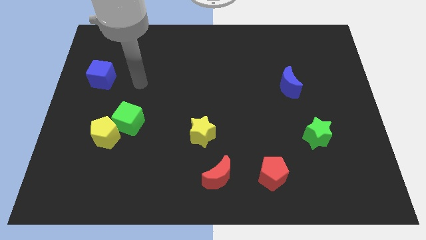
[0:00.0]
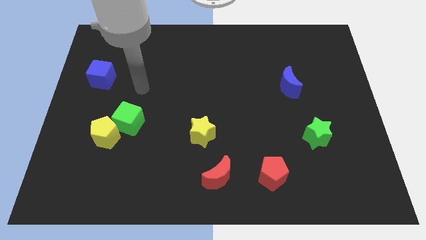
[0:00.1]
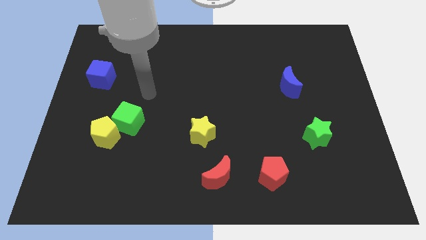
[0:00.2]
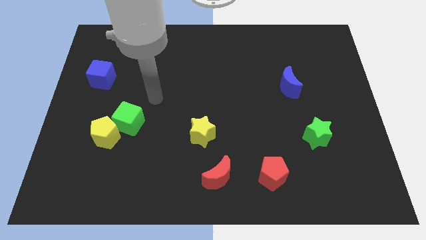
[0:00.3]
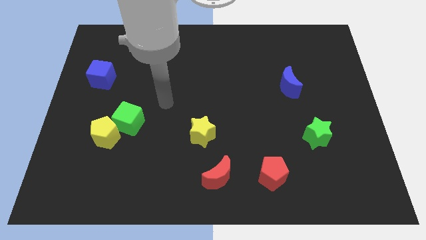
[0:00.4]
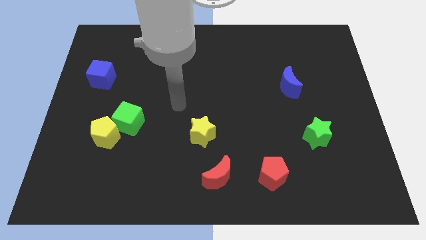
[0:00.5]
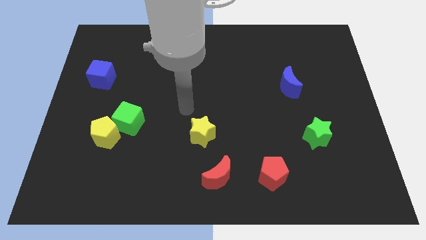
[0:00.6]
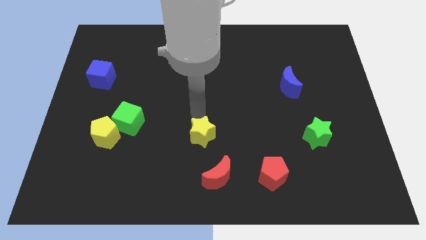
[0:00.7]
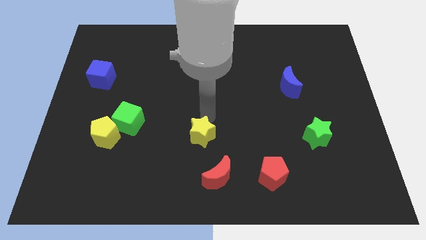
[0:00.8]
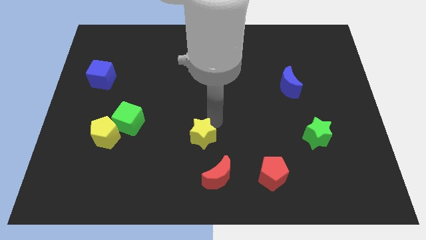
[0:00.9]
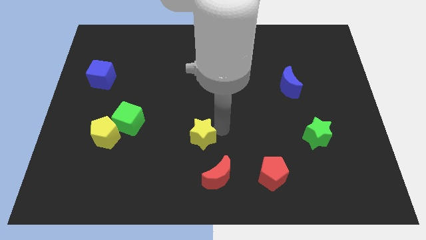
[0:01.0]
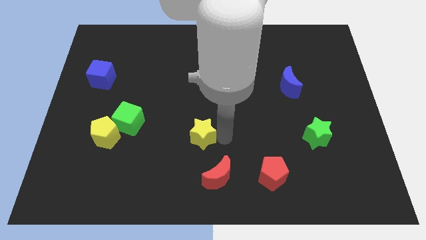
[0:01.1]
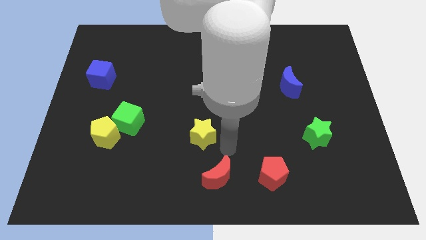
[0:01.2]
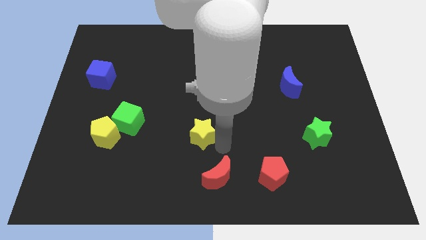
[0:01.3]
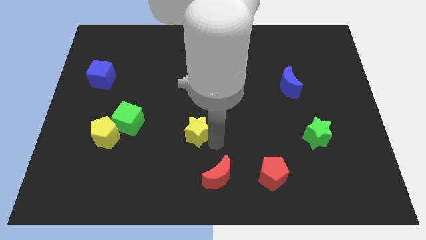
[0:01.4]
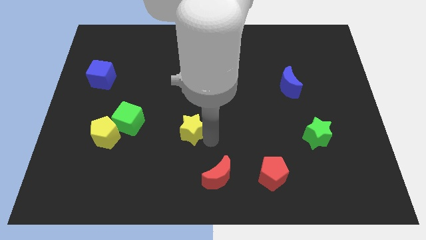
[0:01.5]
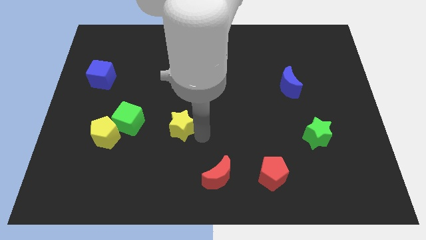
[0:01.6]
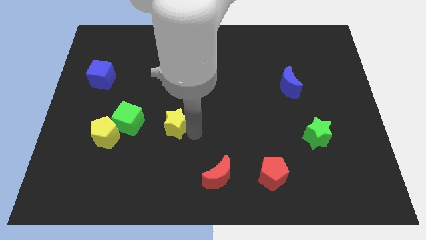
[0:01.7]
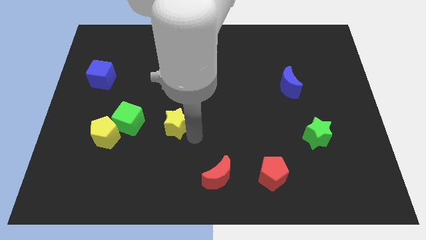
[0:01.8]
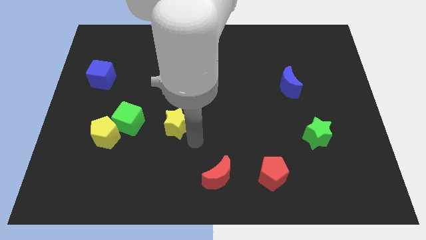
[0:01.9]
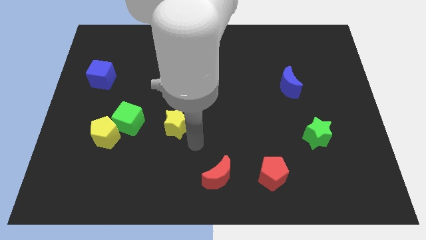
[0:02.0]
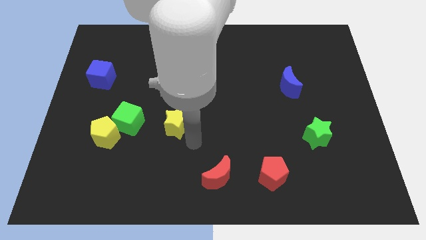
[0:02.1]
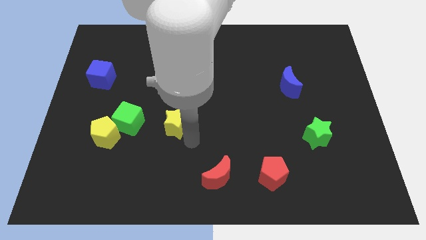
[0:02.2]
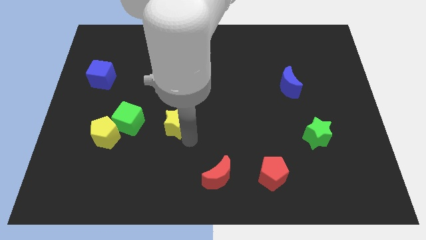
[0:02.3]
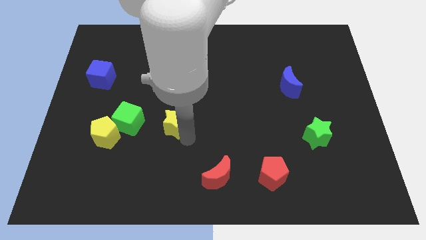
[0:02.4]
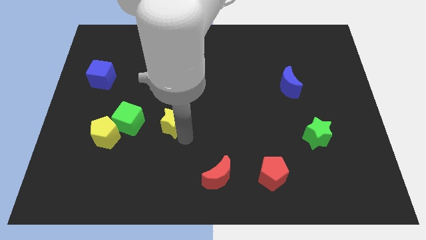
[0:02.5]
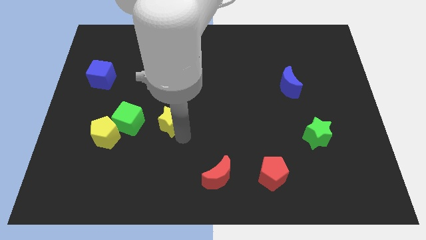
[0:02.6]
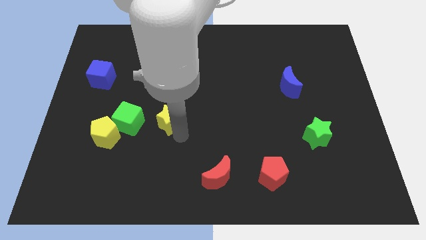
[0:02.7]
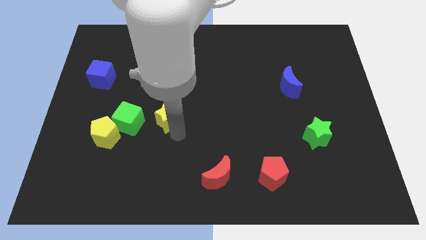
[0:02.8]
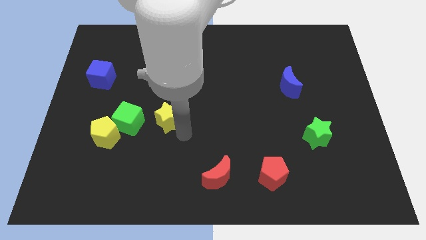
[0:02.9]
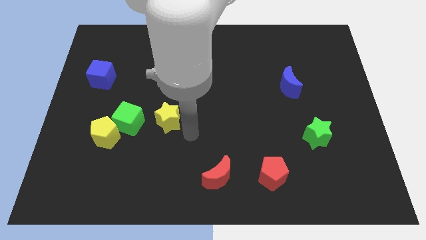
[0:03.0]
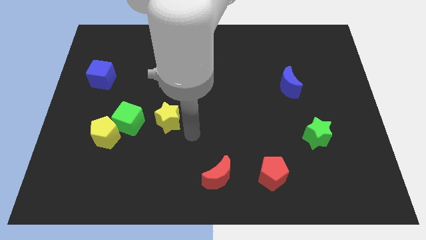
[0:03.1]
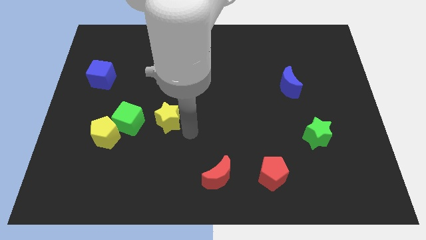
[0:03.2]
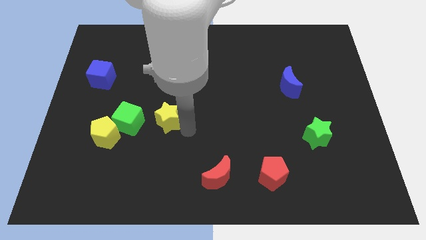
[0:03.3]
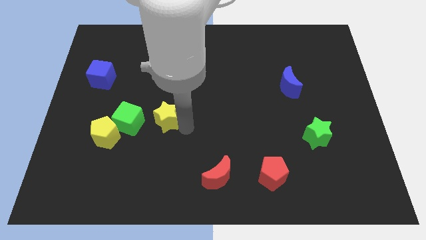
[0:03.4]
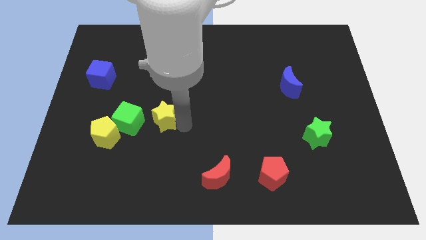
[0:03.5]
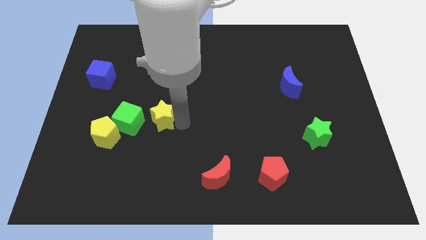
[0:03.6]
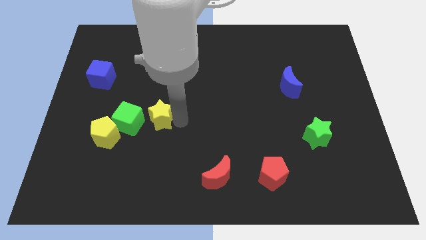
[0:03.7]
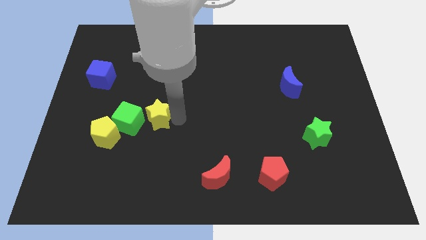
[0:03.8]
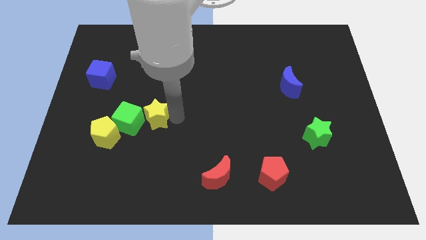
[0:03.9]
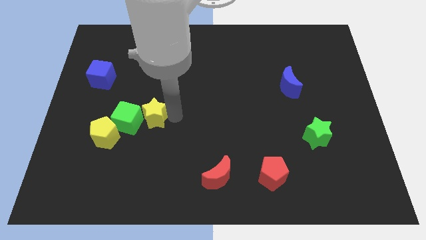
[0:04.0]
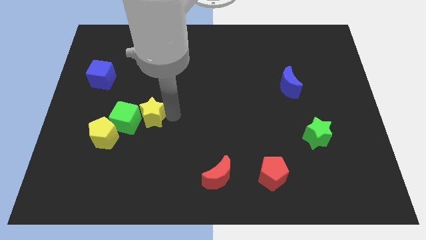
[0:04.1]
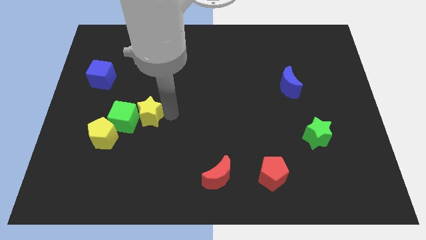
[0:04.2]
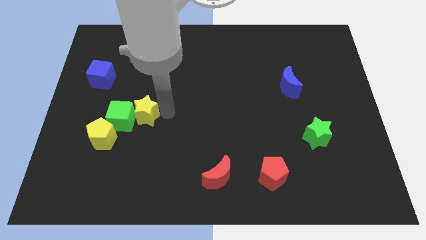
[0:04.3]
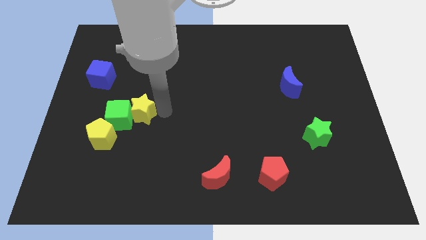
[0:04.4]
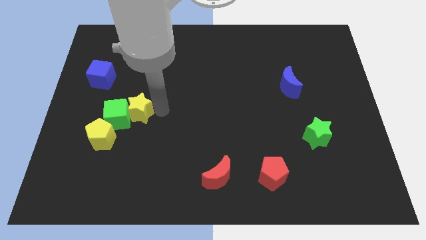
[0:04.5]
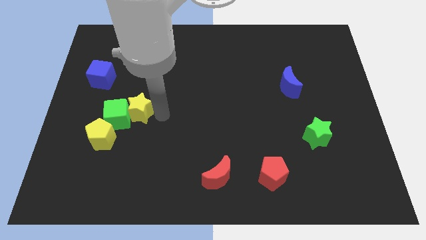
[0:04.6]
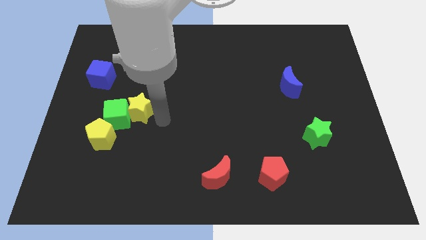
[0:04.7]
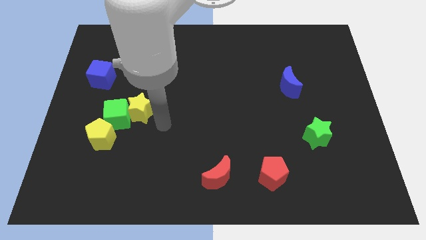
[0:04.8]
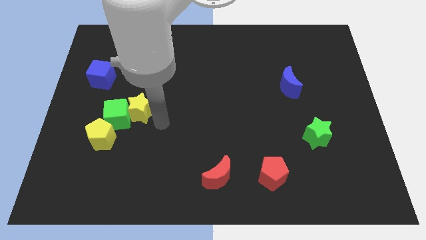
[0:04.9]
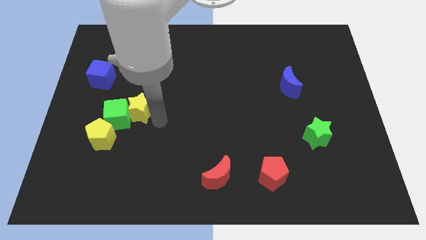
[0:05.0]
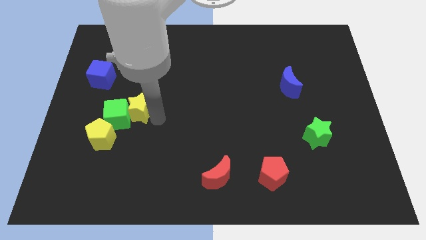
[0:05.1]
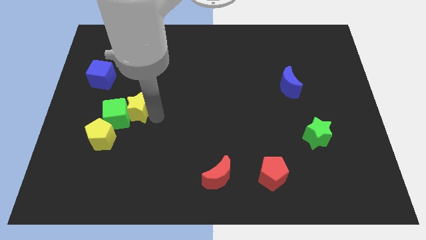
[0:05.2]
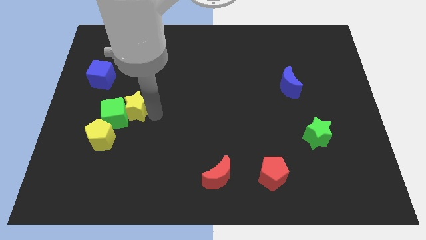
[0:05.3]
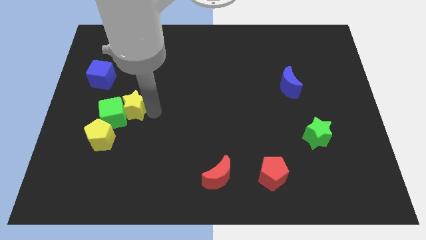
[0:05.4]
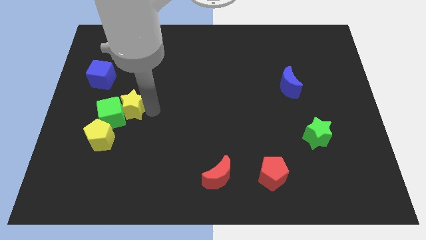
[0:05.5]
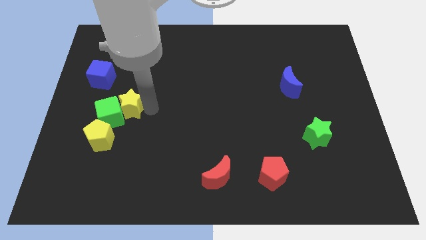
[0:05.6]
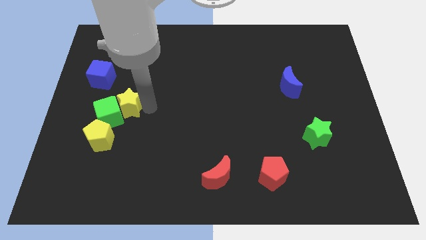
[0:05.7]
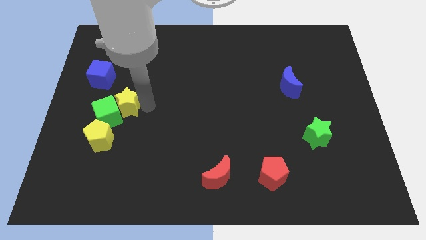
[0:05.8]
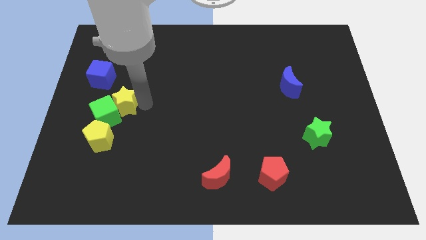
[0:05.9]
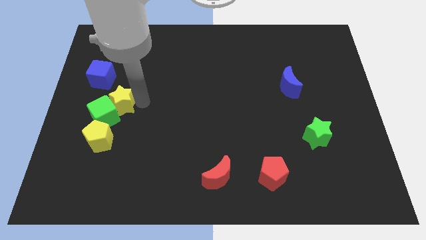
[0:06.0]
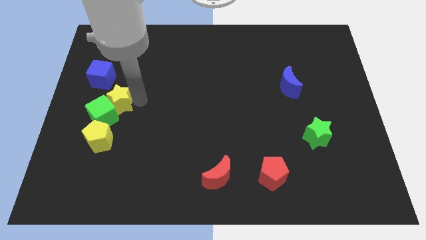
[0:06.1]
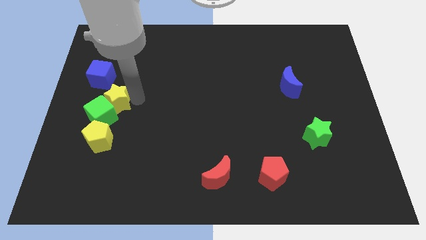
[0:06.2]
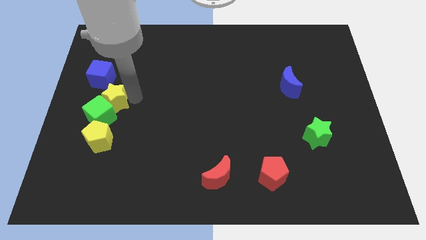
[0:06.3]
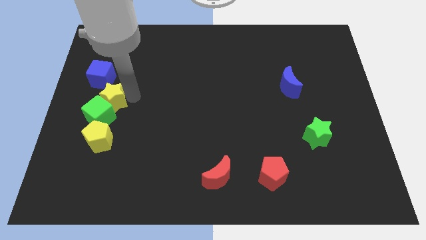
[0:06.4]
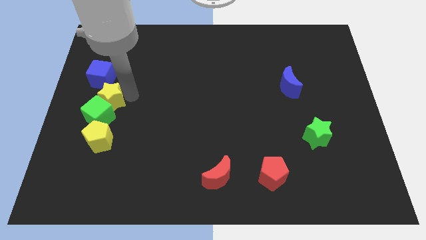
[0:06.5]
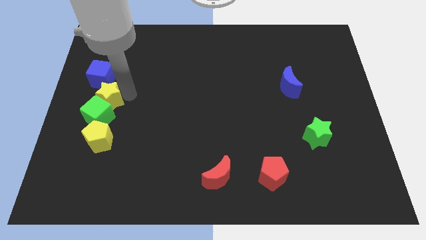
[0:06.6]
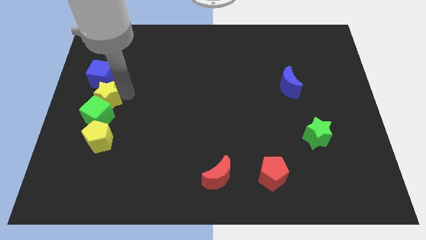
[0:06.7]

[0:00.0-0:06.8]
slide the yellow star to the center left
